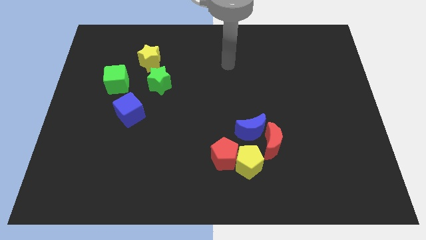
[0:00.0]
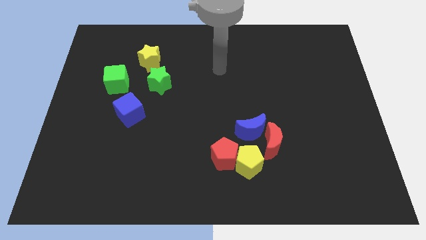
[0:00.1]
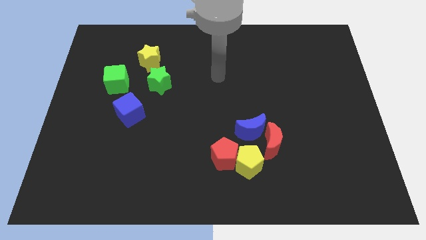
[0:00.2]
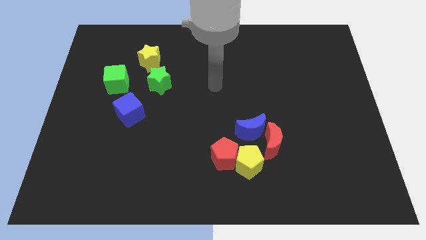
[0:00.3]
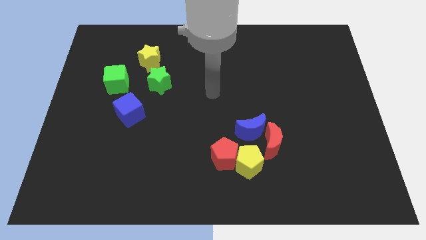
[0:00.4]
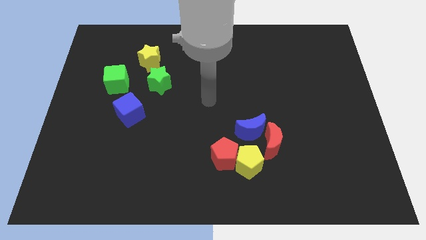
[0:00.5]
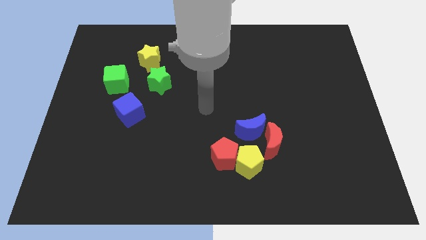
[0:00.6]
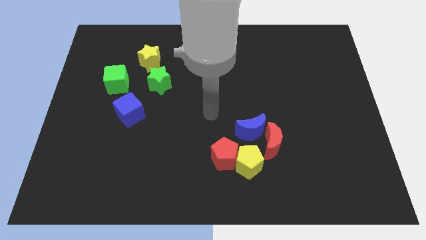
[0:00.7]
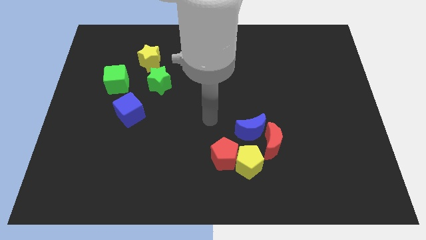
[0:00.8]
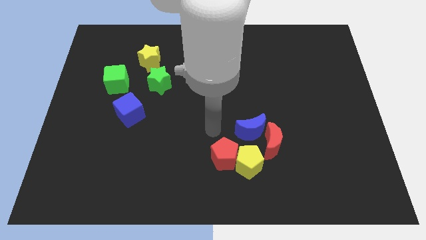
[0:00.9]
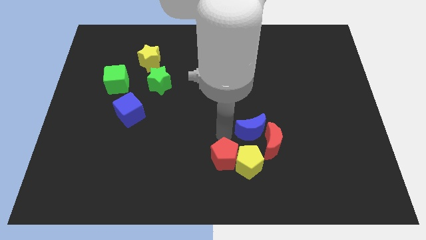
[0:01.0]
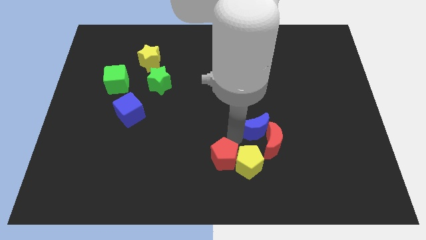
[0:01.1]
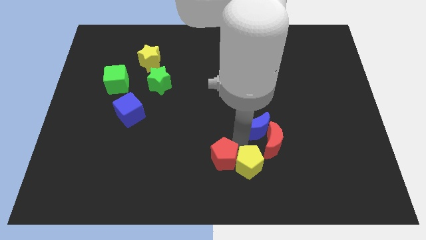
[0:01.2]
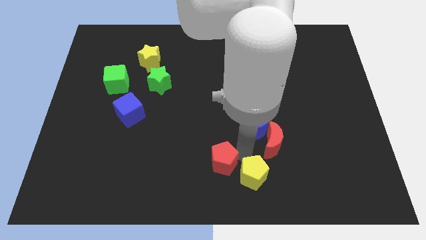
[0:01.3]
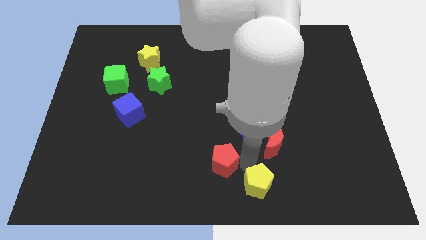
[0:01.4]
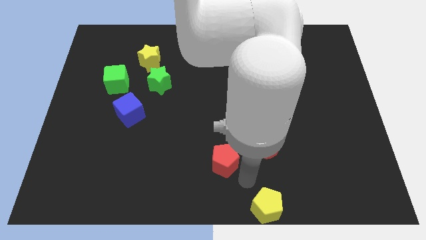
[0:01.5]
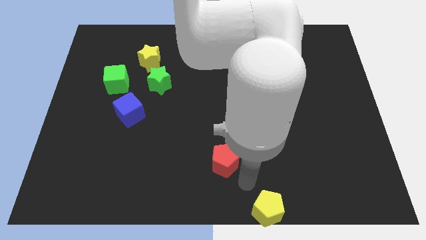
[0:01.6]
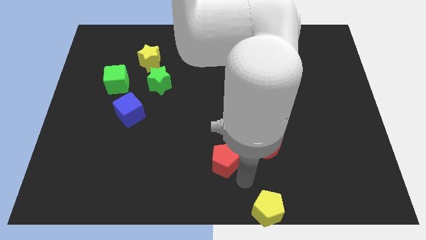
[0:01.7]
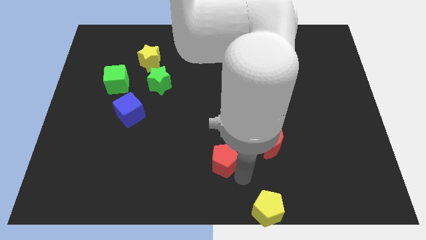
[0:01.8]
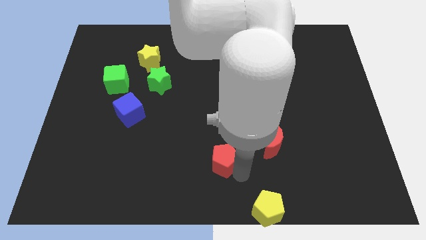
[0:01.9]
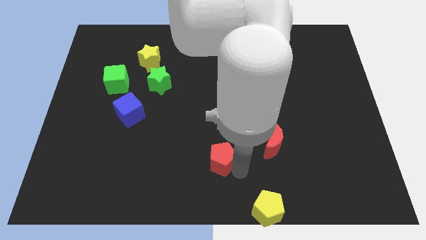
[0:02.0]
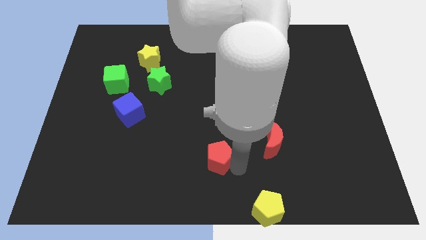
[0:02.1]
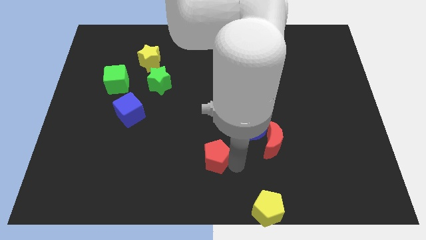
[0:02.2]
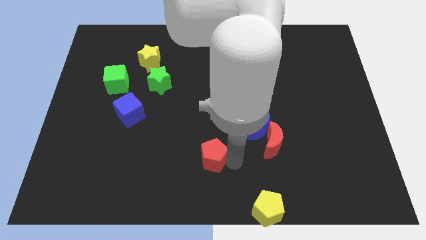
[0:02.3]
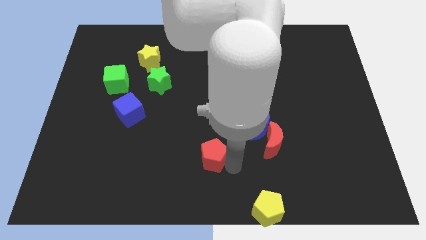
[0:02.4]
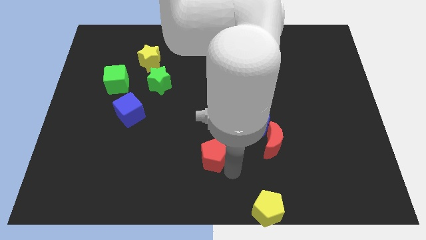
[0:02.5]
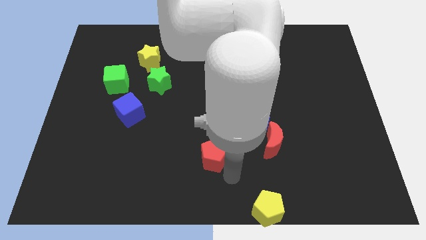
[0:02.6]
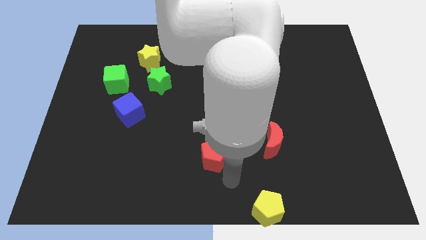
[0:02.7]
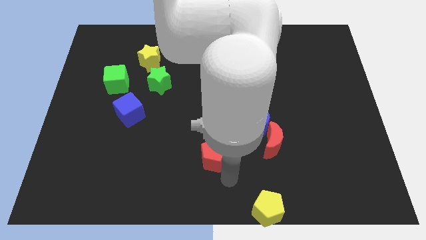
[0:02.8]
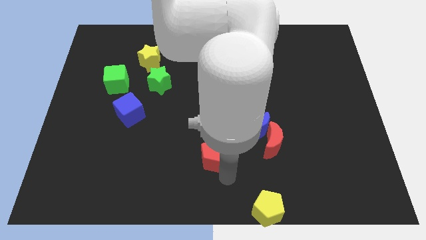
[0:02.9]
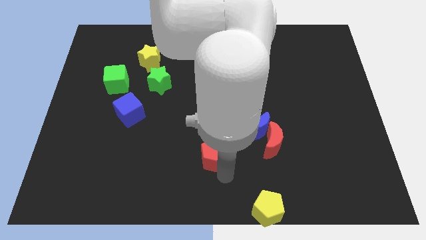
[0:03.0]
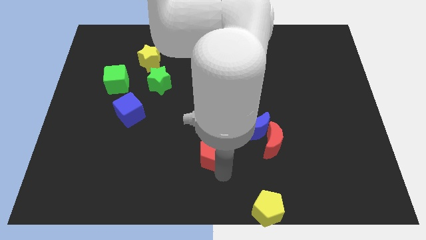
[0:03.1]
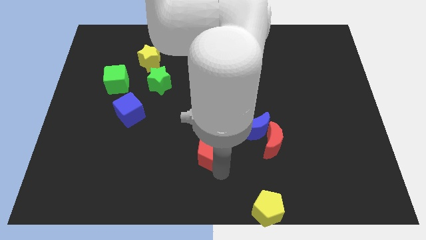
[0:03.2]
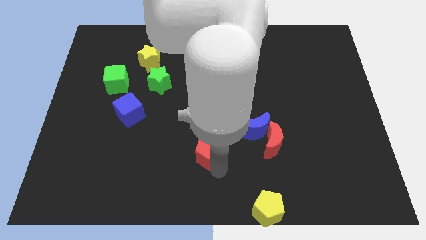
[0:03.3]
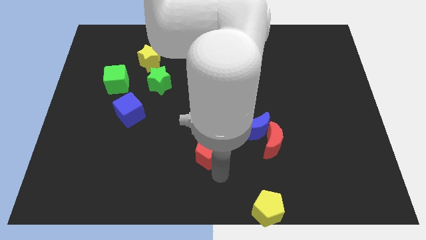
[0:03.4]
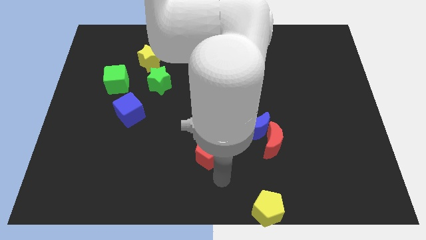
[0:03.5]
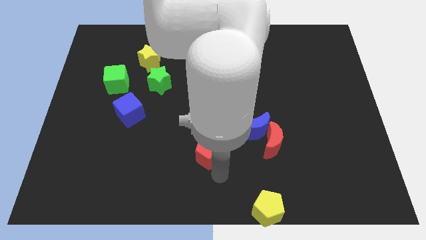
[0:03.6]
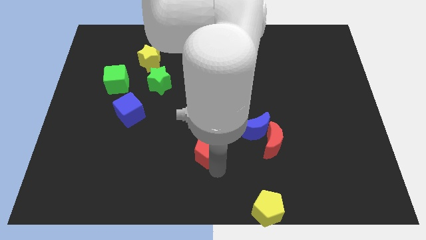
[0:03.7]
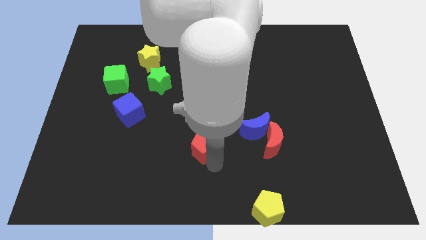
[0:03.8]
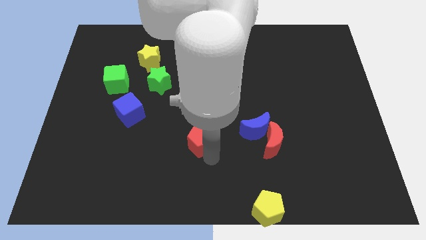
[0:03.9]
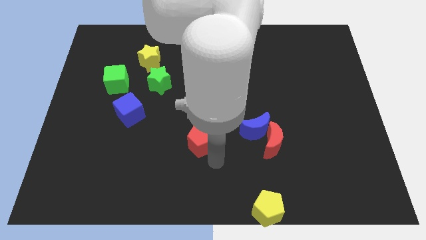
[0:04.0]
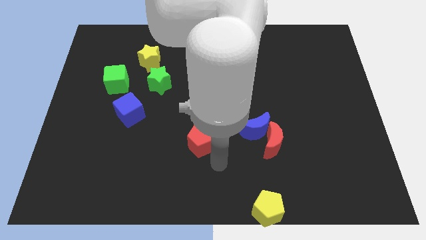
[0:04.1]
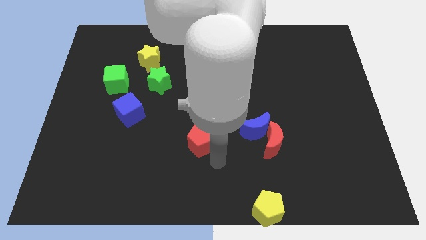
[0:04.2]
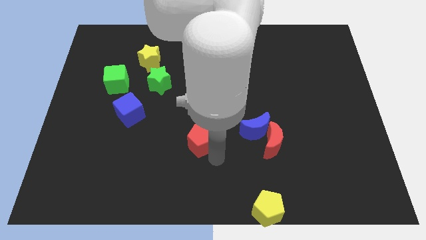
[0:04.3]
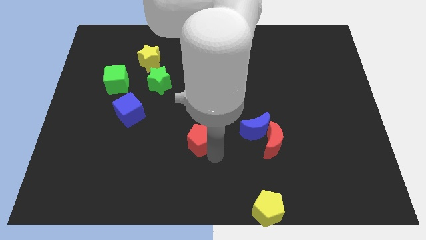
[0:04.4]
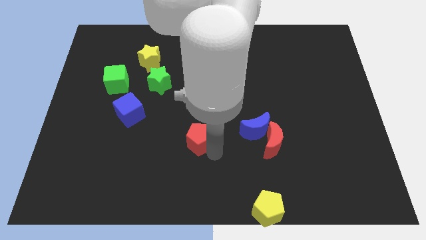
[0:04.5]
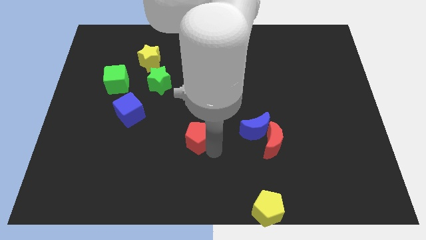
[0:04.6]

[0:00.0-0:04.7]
slide the red pentagon upwards and then left a little

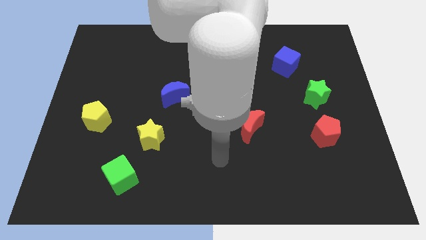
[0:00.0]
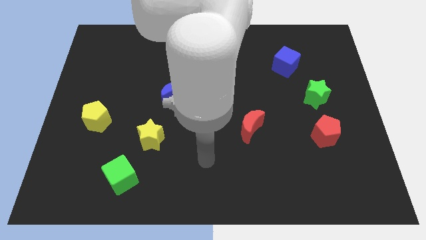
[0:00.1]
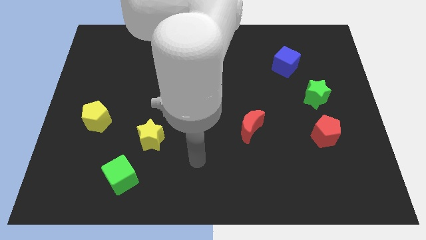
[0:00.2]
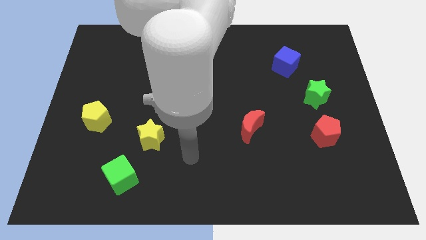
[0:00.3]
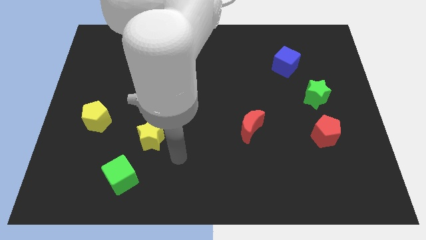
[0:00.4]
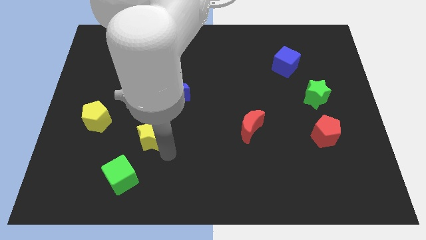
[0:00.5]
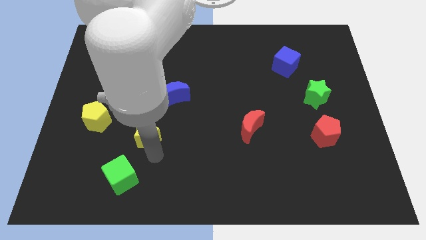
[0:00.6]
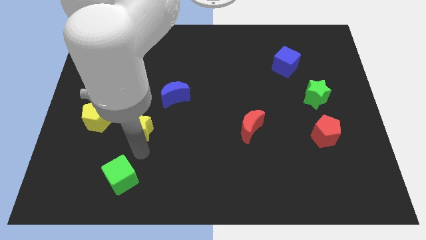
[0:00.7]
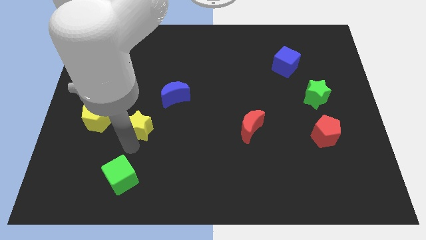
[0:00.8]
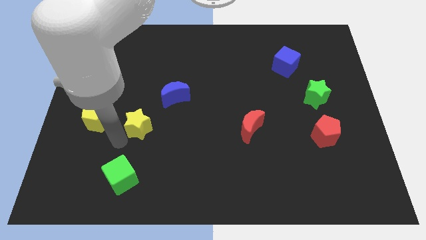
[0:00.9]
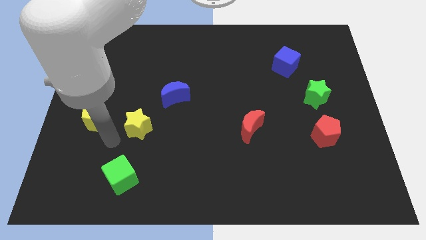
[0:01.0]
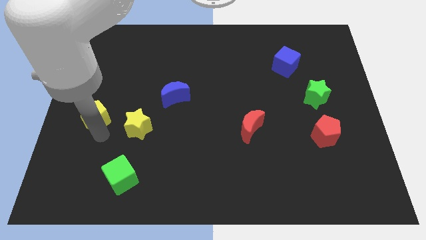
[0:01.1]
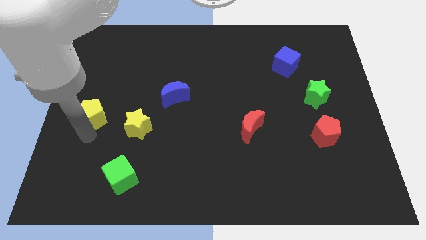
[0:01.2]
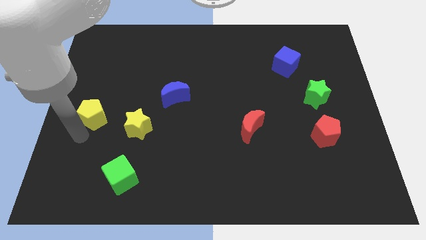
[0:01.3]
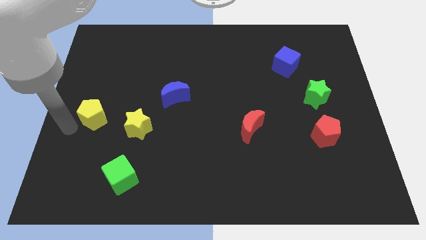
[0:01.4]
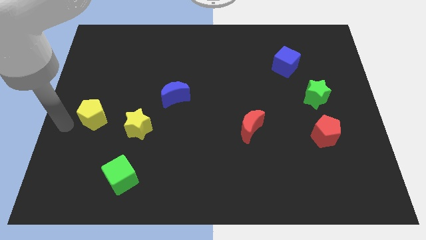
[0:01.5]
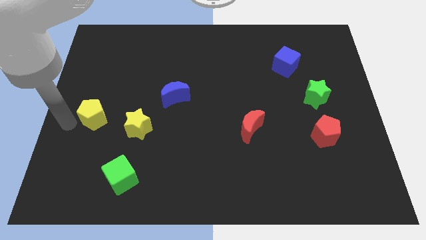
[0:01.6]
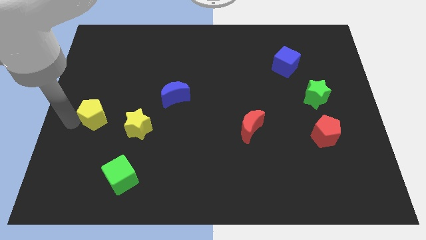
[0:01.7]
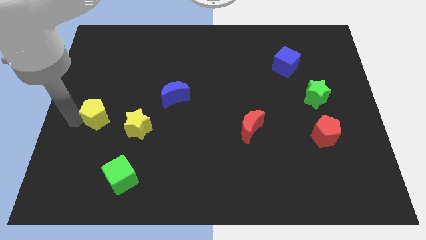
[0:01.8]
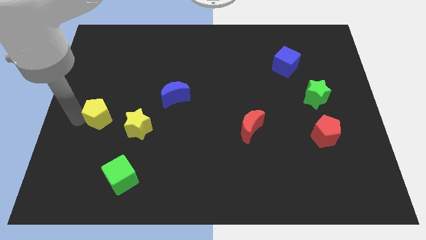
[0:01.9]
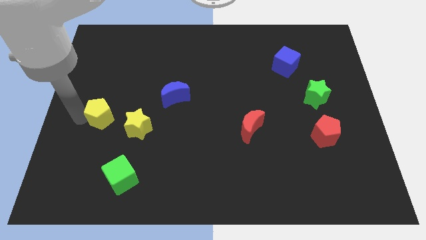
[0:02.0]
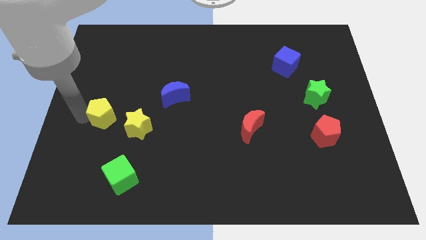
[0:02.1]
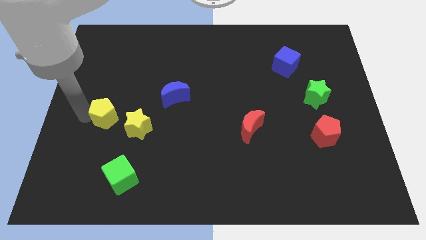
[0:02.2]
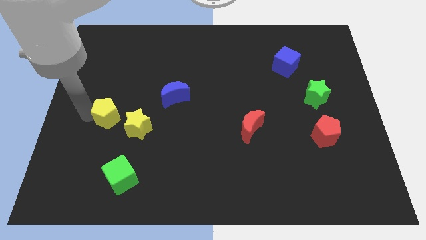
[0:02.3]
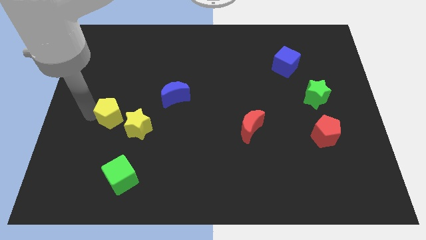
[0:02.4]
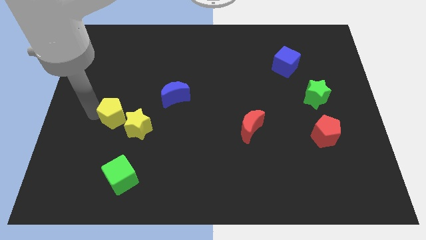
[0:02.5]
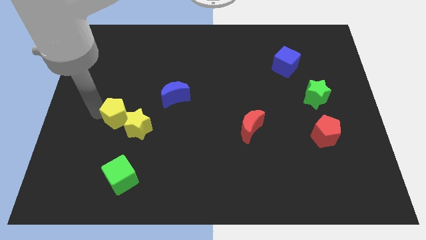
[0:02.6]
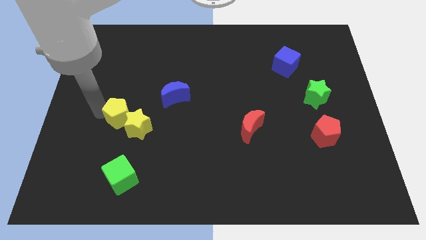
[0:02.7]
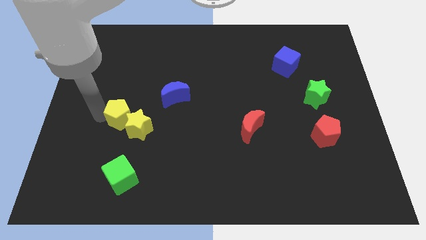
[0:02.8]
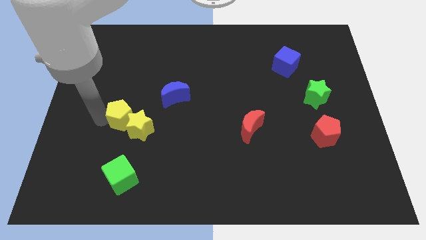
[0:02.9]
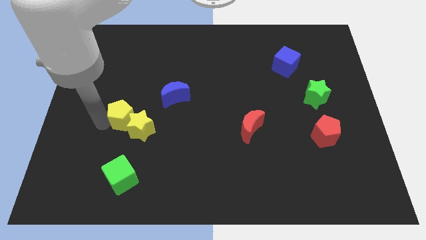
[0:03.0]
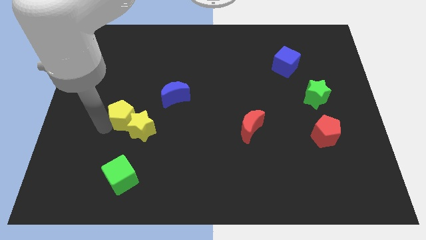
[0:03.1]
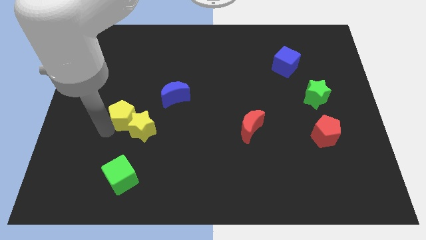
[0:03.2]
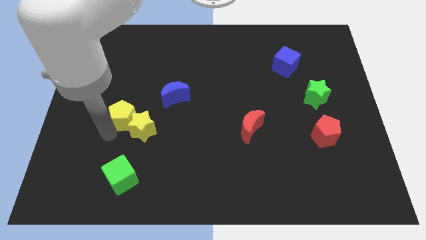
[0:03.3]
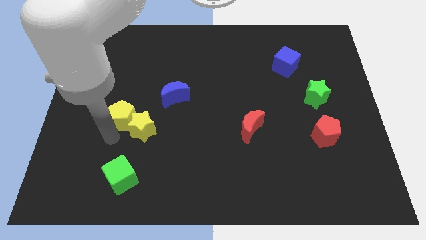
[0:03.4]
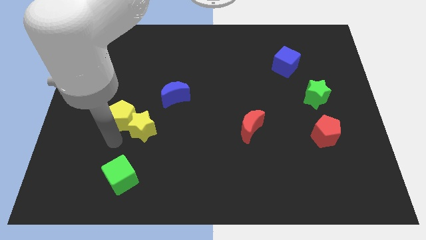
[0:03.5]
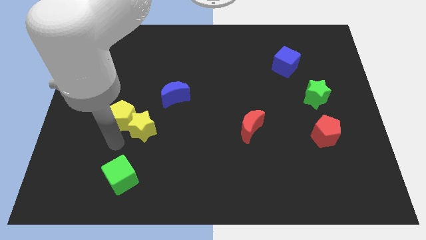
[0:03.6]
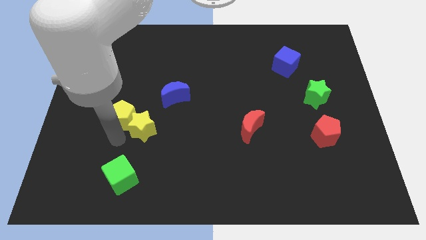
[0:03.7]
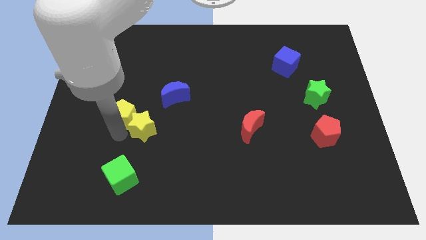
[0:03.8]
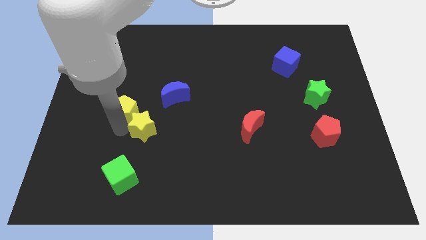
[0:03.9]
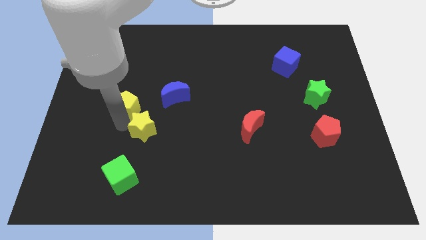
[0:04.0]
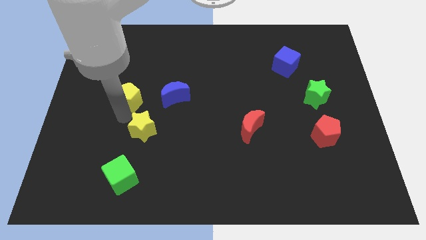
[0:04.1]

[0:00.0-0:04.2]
slide the yellow pentagon a little diagonally upwards and to the right
